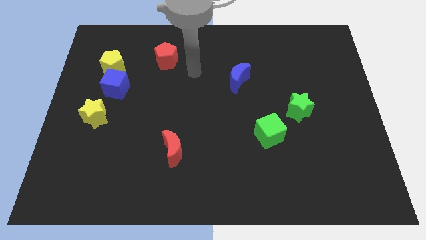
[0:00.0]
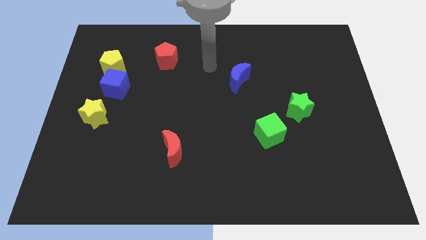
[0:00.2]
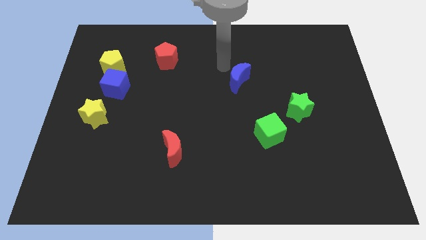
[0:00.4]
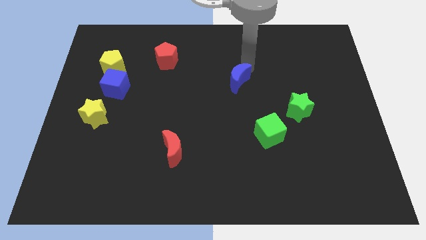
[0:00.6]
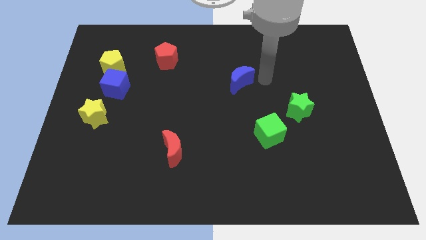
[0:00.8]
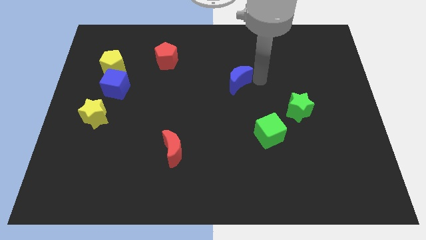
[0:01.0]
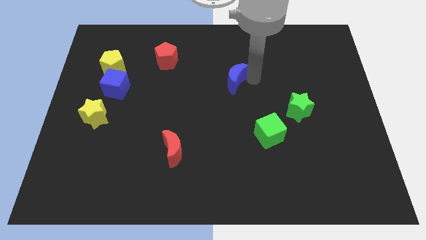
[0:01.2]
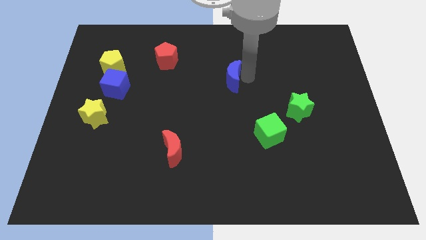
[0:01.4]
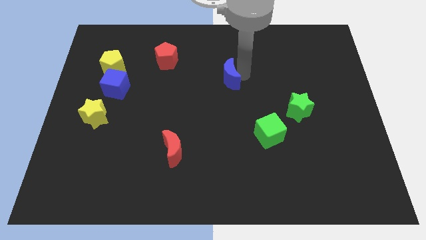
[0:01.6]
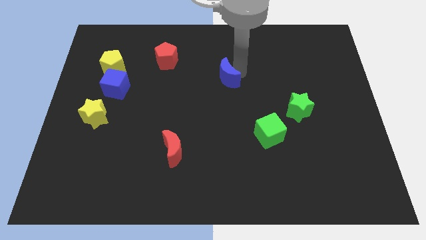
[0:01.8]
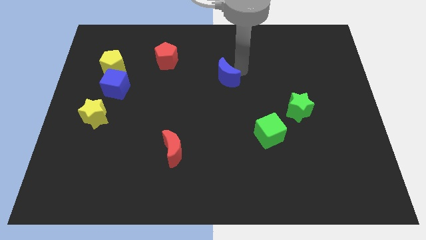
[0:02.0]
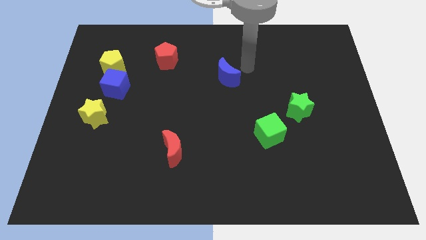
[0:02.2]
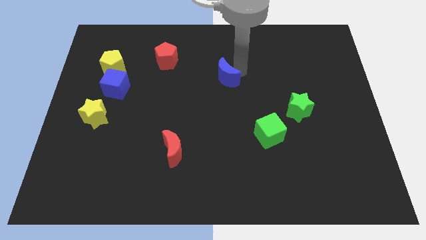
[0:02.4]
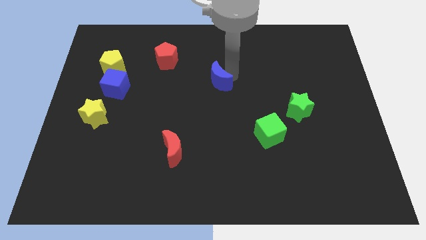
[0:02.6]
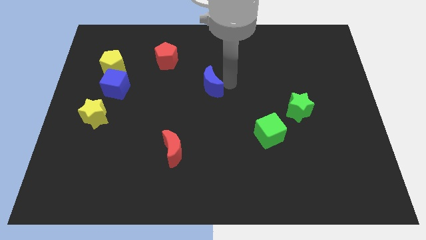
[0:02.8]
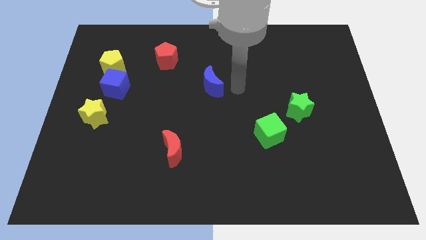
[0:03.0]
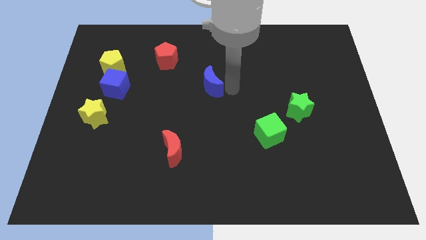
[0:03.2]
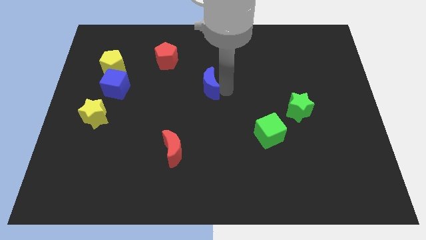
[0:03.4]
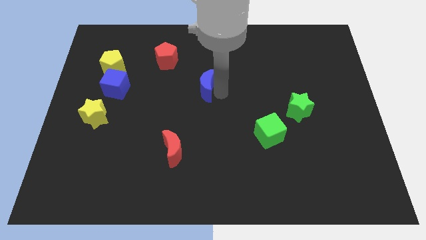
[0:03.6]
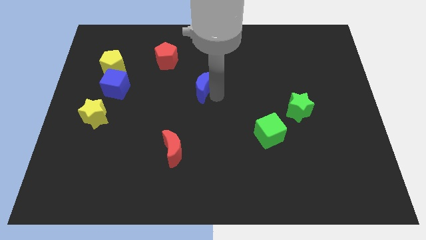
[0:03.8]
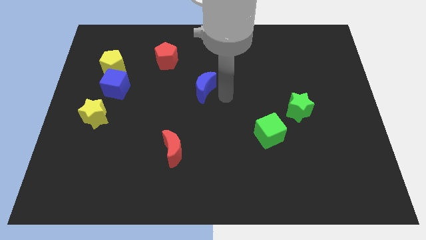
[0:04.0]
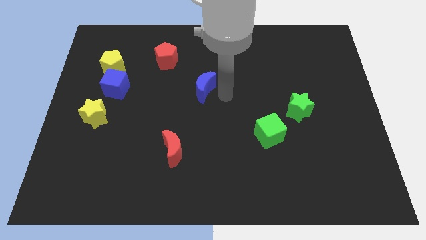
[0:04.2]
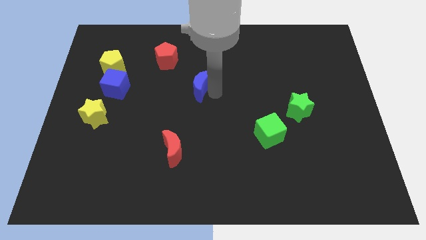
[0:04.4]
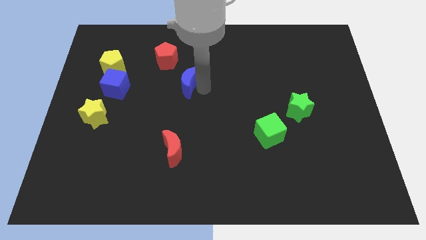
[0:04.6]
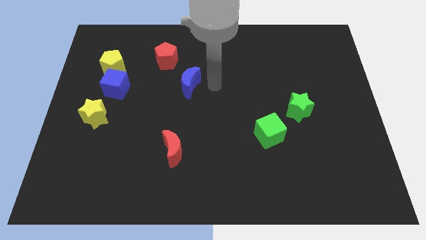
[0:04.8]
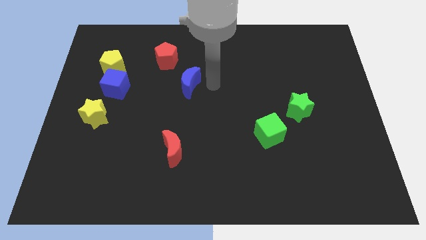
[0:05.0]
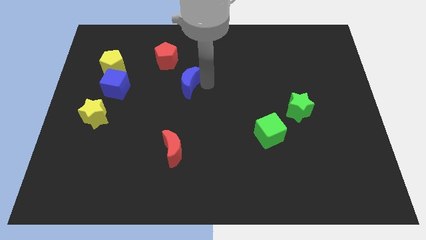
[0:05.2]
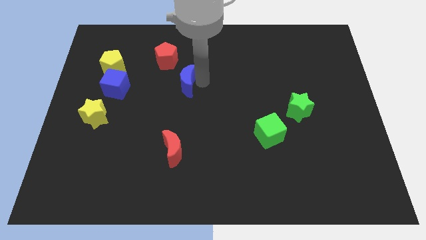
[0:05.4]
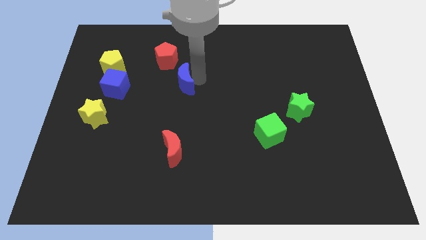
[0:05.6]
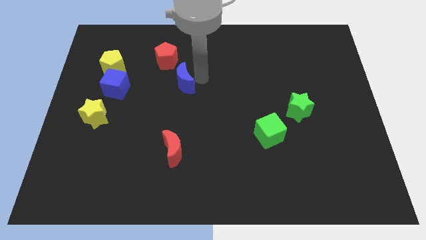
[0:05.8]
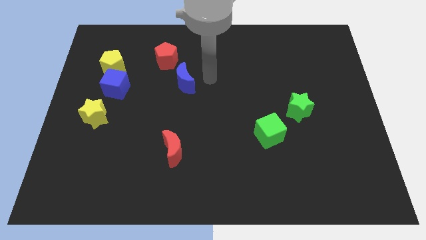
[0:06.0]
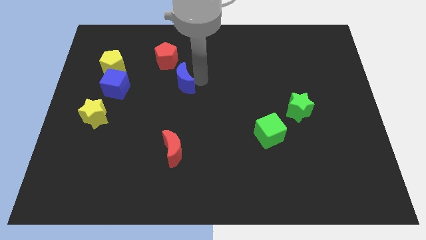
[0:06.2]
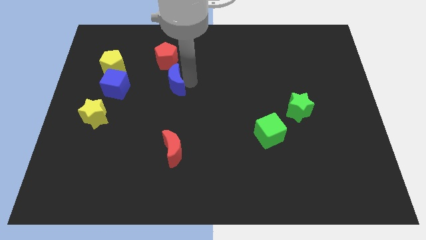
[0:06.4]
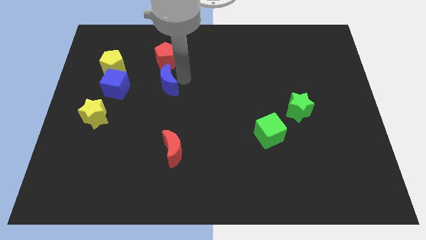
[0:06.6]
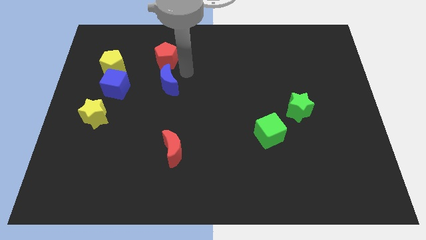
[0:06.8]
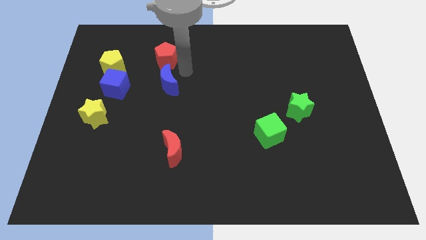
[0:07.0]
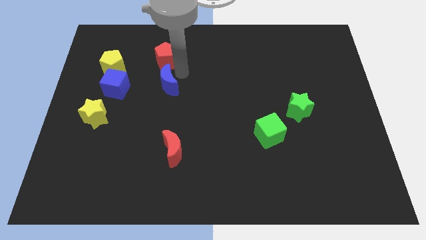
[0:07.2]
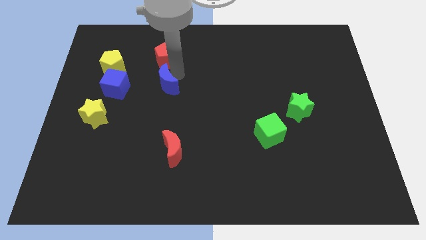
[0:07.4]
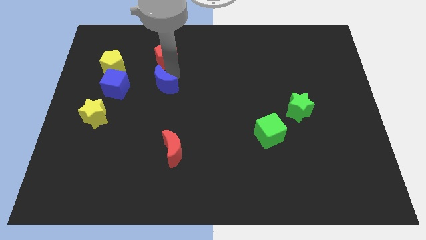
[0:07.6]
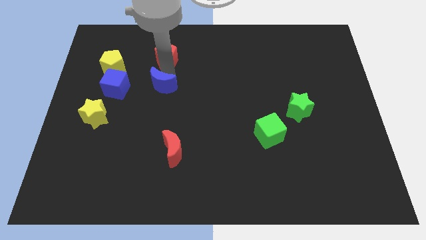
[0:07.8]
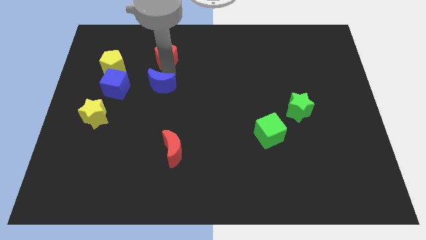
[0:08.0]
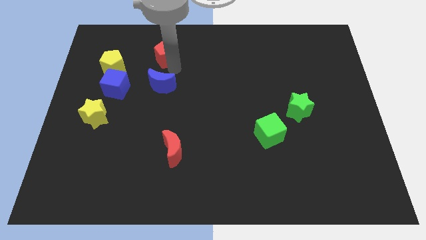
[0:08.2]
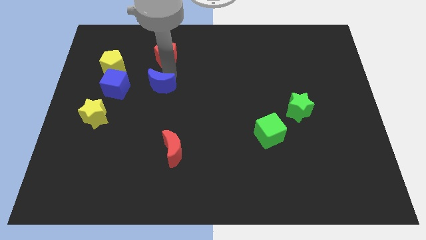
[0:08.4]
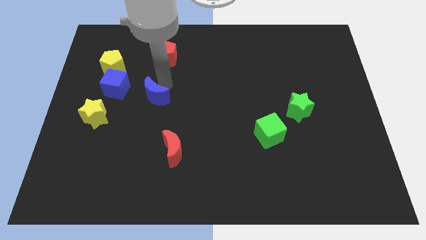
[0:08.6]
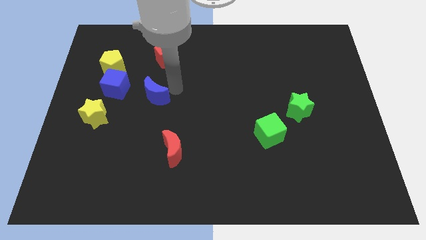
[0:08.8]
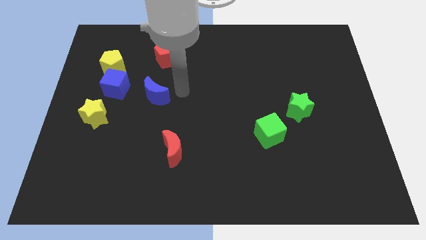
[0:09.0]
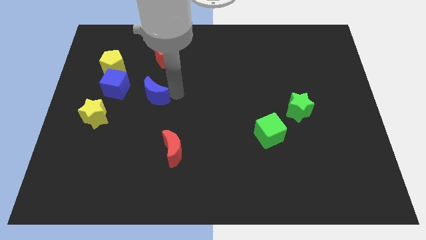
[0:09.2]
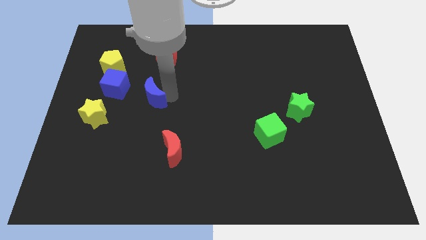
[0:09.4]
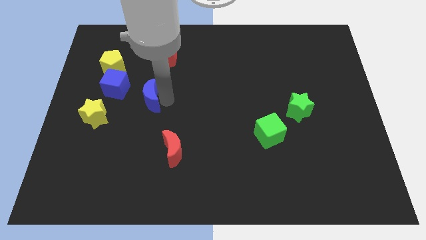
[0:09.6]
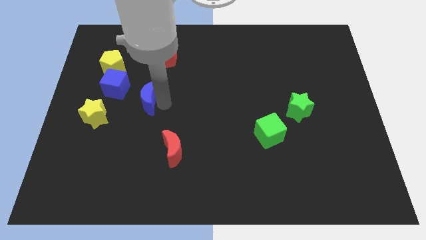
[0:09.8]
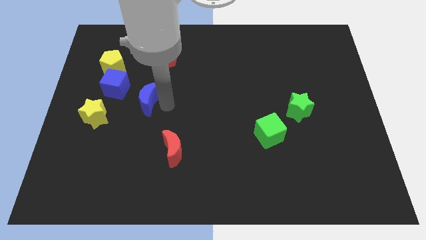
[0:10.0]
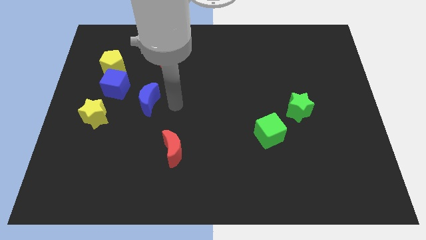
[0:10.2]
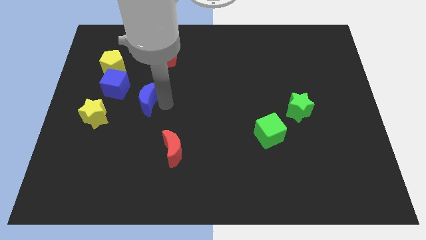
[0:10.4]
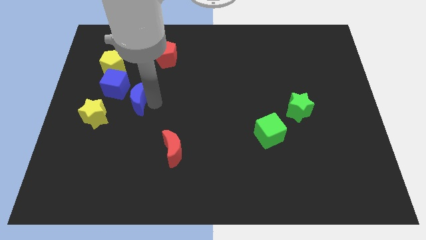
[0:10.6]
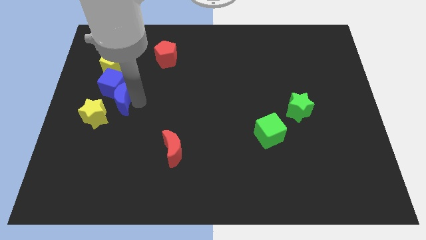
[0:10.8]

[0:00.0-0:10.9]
push the blue moon below the yellow pentagon

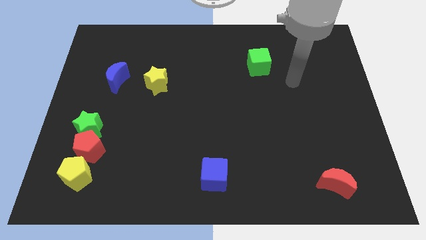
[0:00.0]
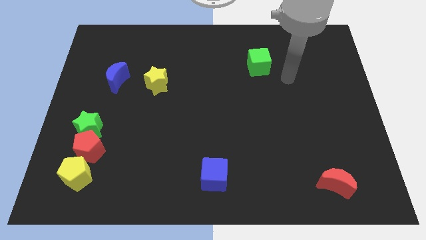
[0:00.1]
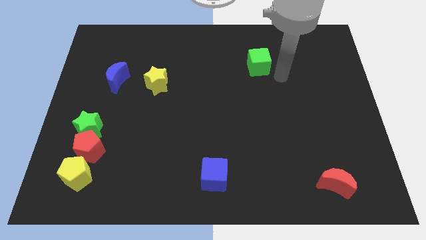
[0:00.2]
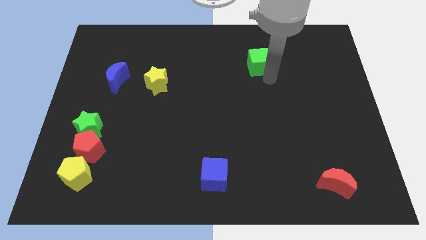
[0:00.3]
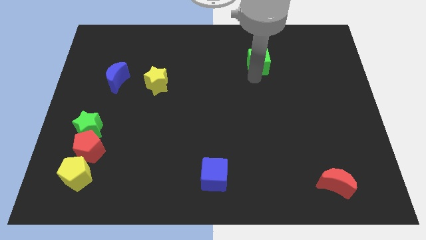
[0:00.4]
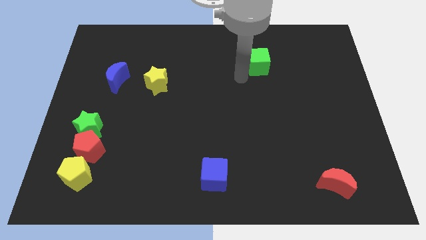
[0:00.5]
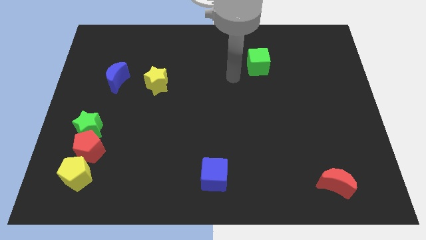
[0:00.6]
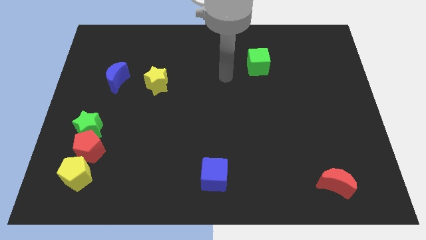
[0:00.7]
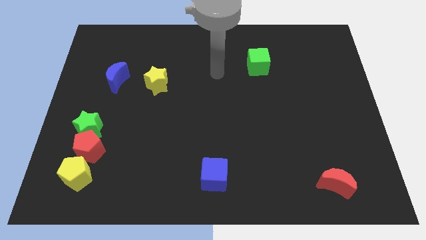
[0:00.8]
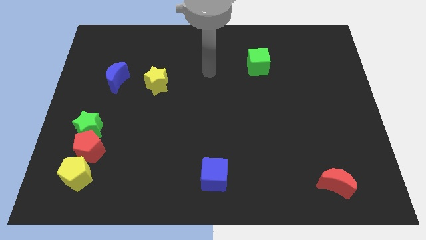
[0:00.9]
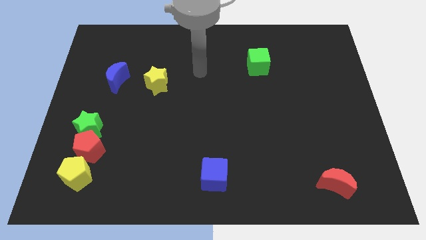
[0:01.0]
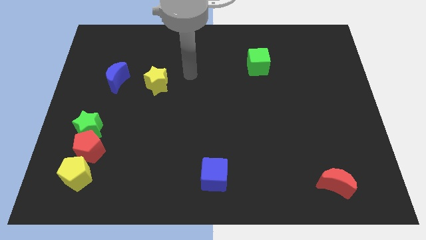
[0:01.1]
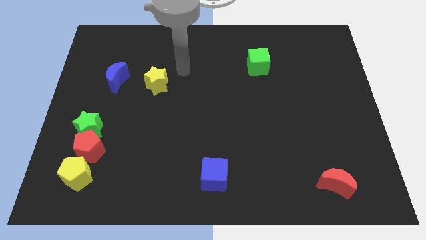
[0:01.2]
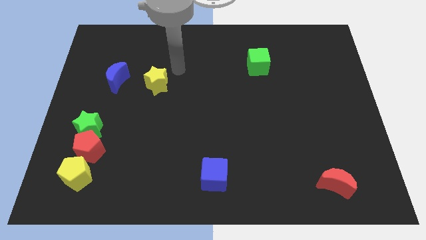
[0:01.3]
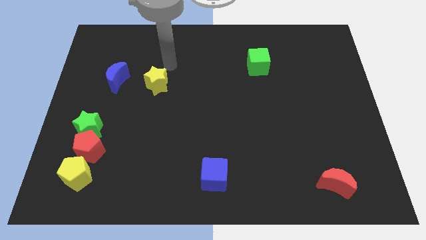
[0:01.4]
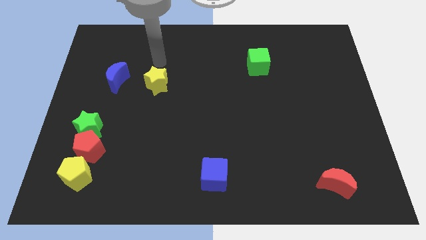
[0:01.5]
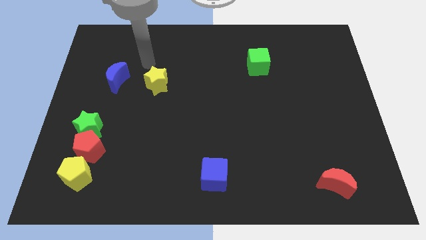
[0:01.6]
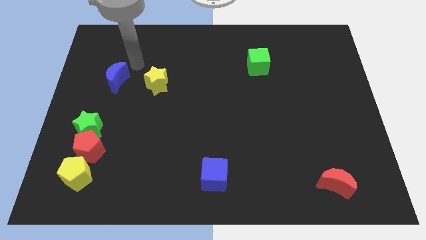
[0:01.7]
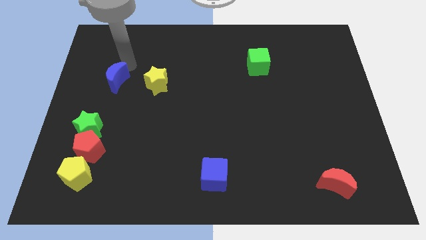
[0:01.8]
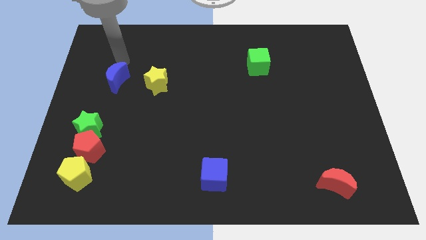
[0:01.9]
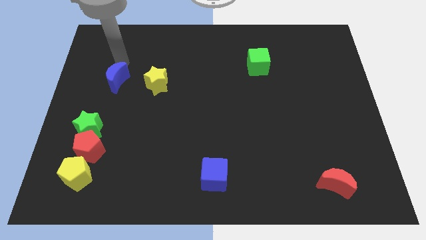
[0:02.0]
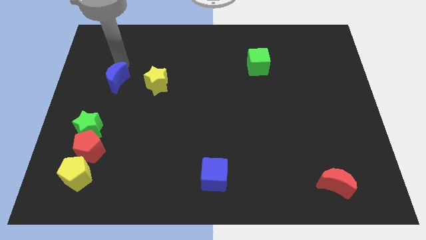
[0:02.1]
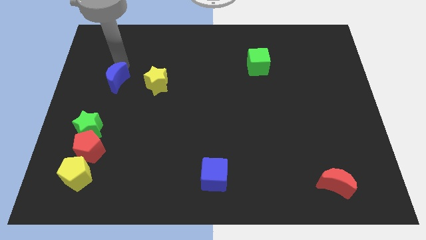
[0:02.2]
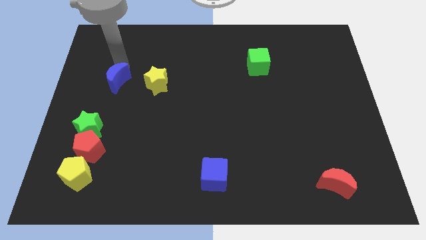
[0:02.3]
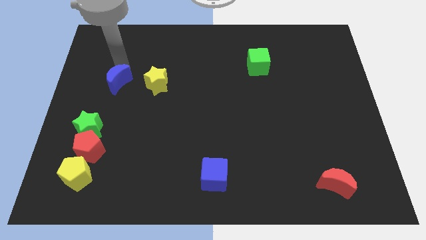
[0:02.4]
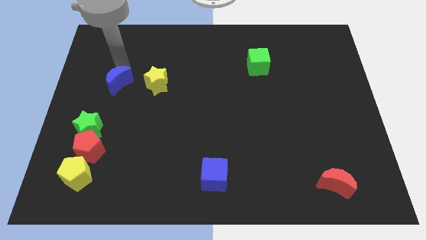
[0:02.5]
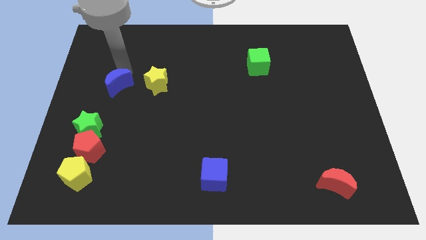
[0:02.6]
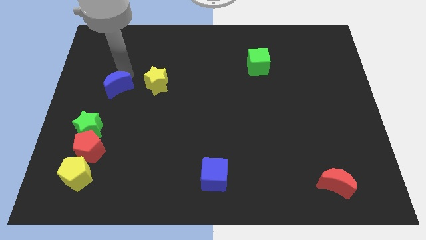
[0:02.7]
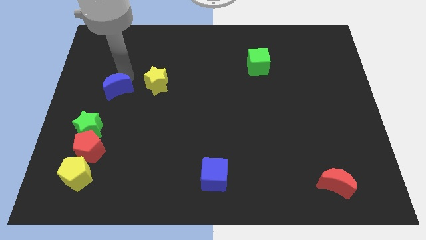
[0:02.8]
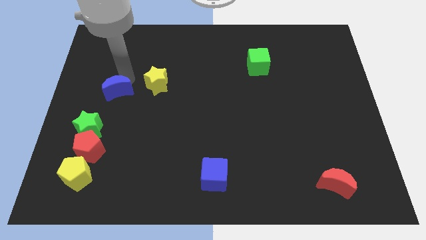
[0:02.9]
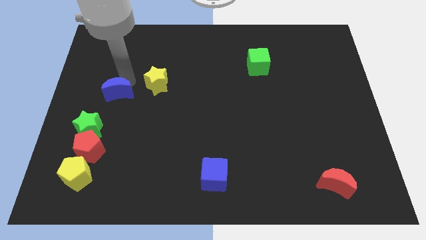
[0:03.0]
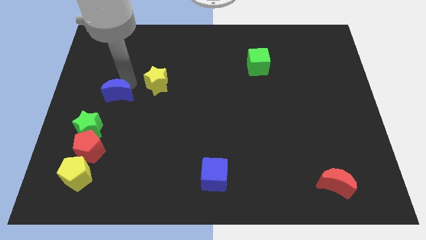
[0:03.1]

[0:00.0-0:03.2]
slide the blue moon to the top right of the green star
